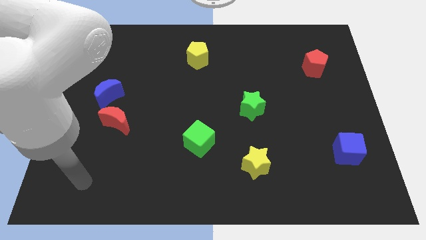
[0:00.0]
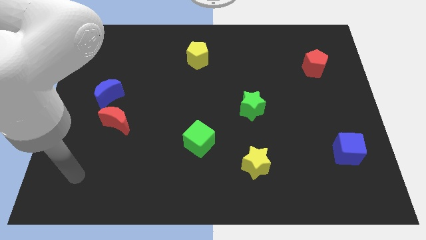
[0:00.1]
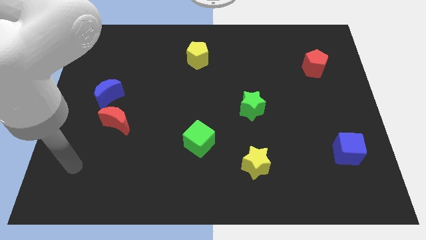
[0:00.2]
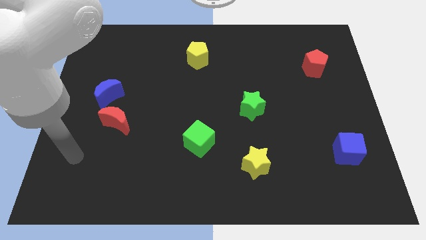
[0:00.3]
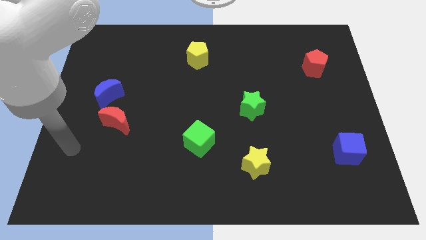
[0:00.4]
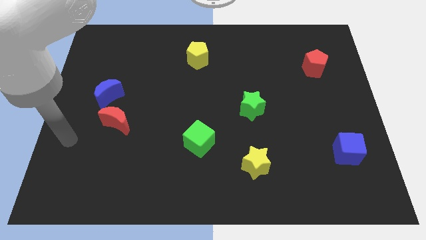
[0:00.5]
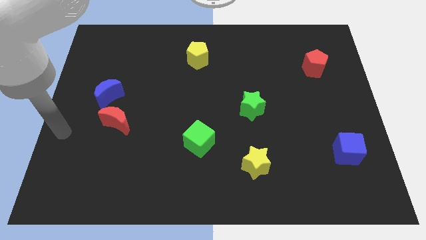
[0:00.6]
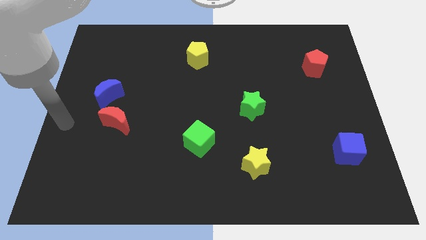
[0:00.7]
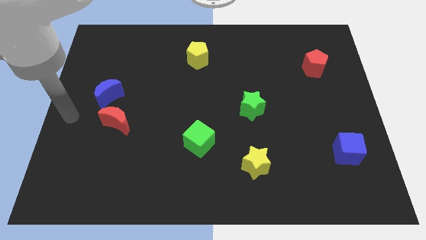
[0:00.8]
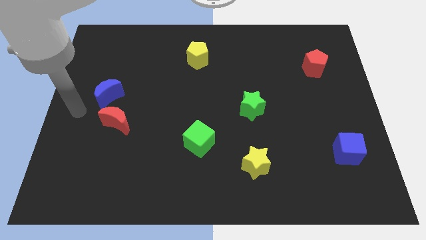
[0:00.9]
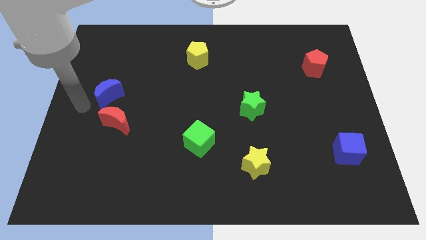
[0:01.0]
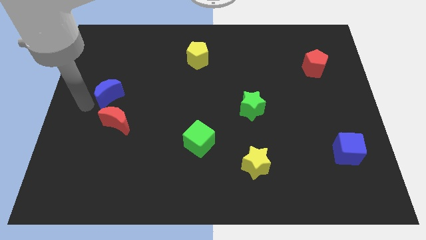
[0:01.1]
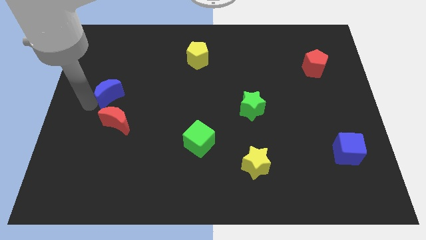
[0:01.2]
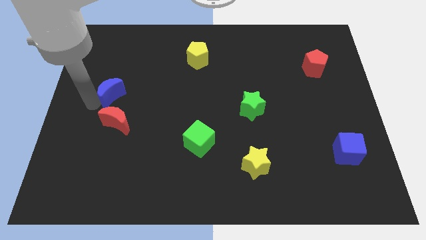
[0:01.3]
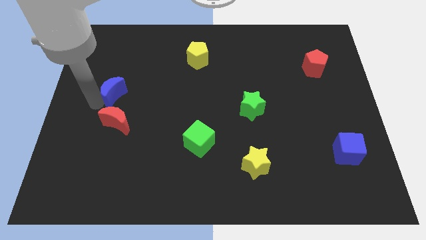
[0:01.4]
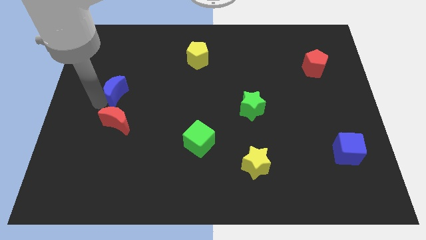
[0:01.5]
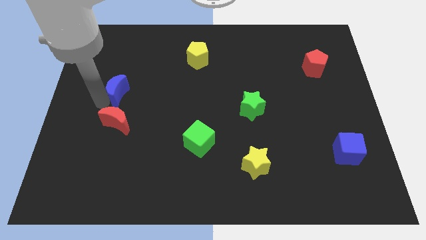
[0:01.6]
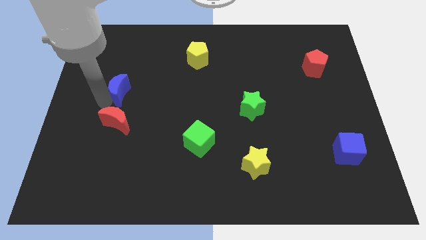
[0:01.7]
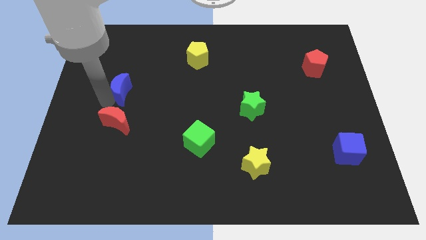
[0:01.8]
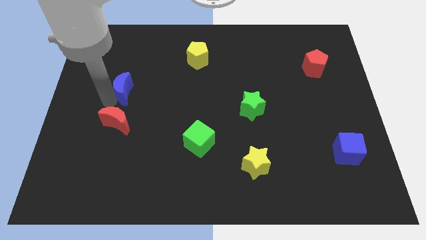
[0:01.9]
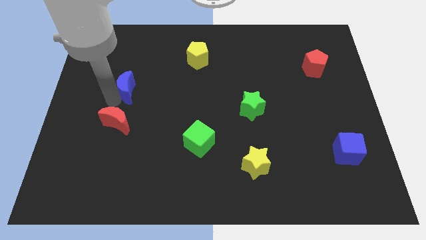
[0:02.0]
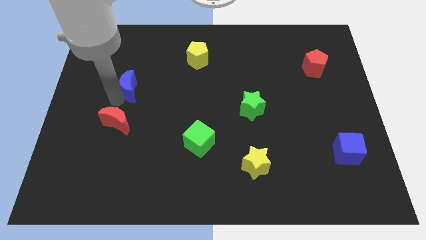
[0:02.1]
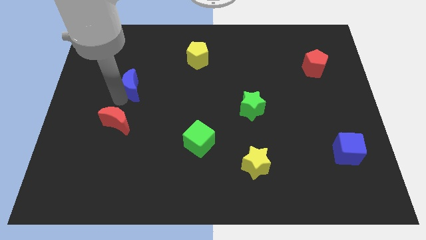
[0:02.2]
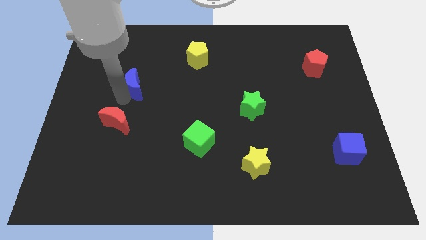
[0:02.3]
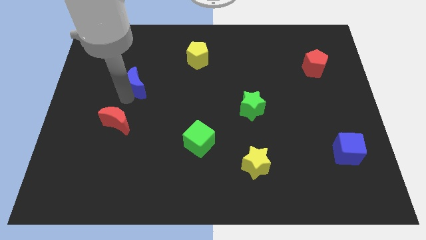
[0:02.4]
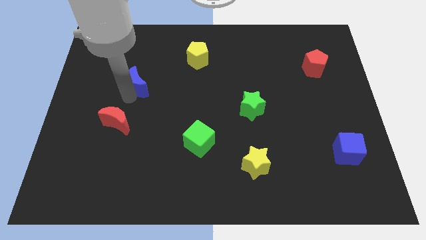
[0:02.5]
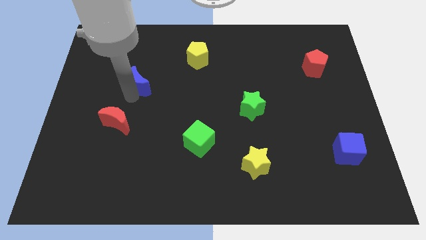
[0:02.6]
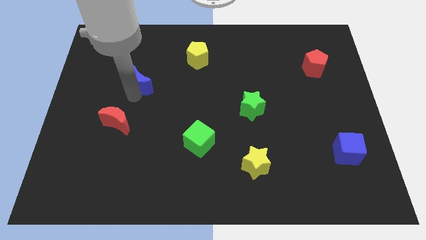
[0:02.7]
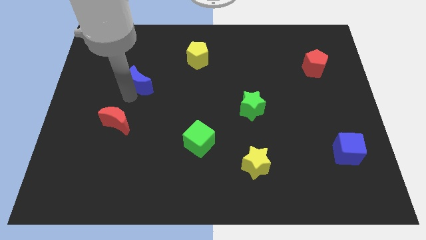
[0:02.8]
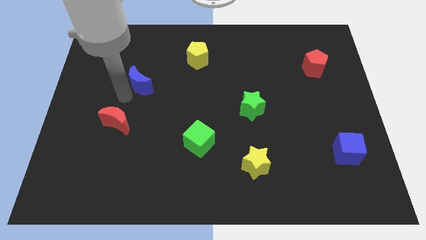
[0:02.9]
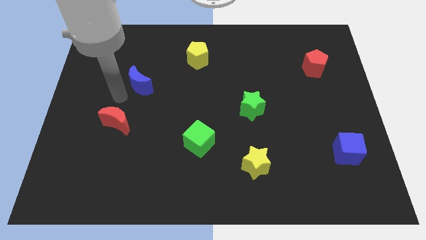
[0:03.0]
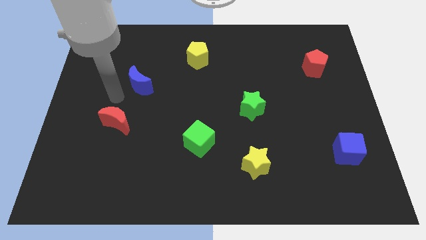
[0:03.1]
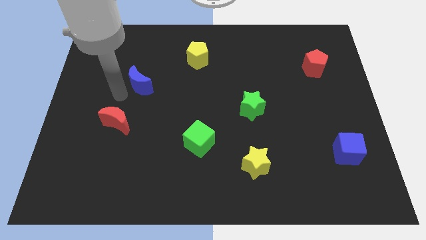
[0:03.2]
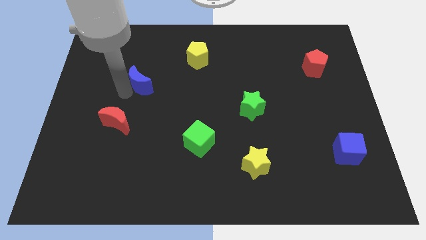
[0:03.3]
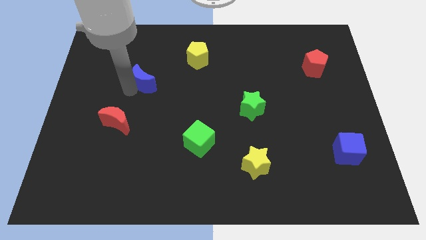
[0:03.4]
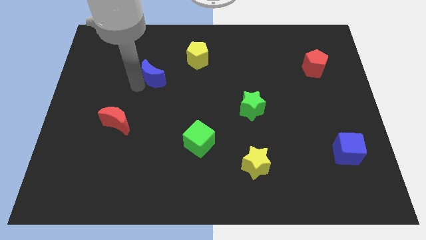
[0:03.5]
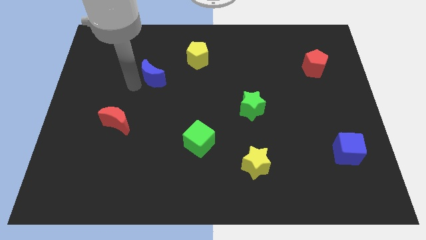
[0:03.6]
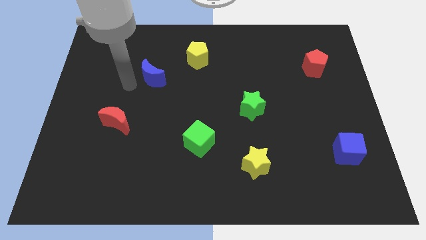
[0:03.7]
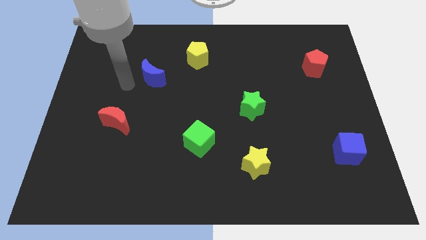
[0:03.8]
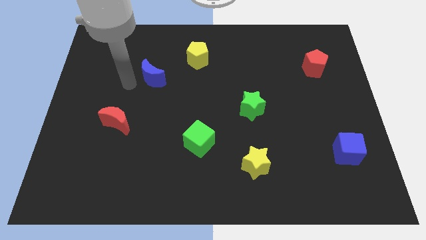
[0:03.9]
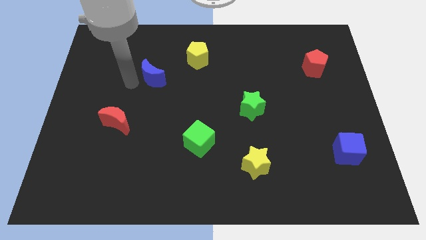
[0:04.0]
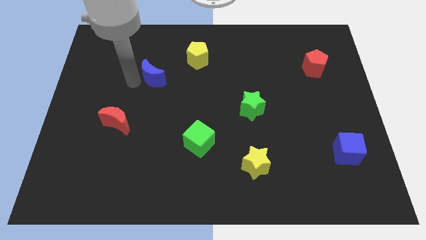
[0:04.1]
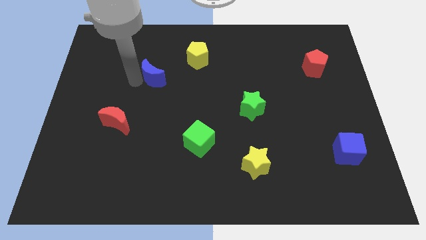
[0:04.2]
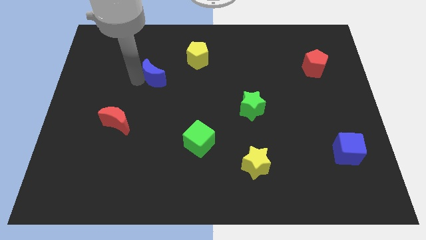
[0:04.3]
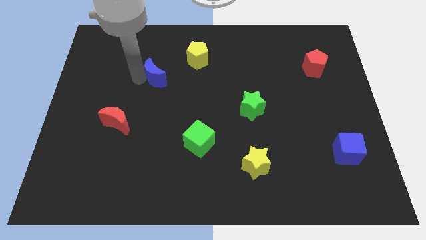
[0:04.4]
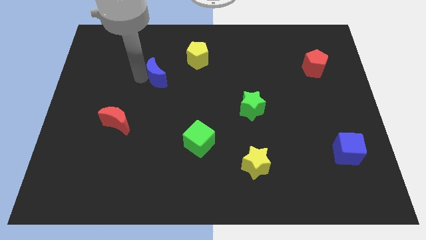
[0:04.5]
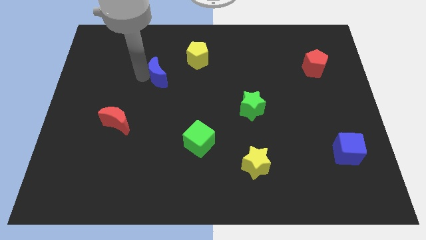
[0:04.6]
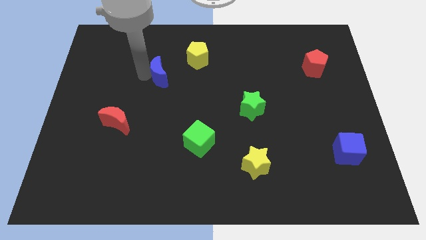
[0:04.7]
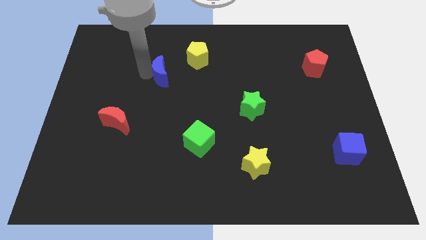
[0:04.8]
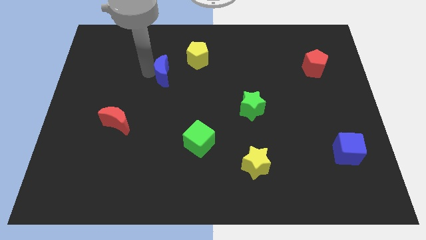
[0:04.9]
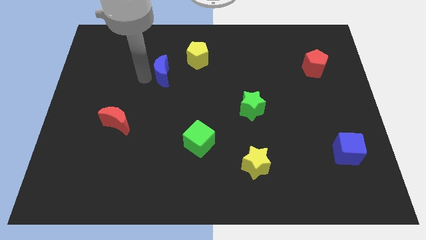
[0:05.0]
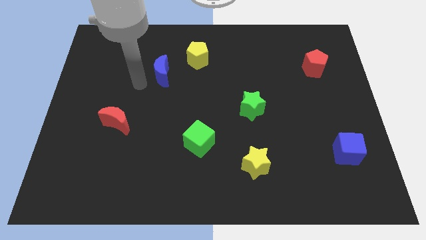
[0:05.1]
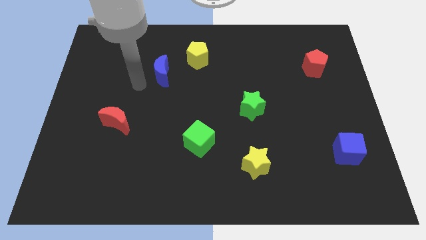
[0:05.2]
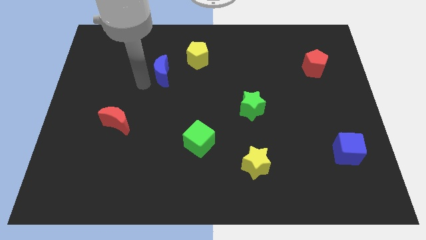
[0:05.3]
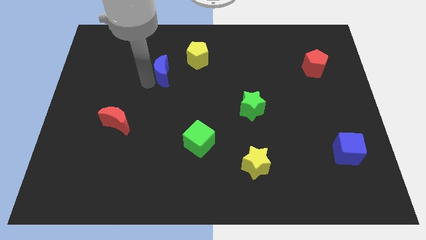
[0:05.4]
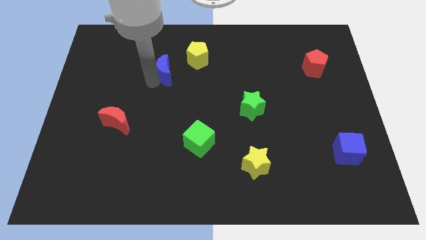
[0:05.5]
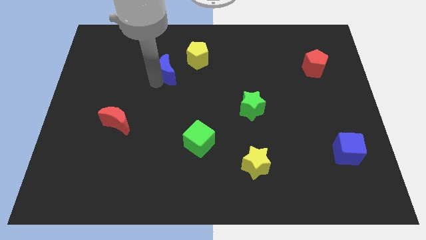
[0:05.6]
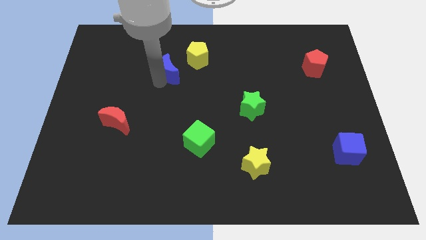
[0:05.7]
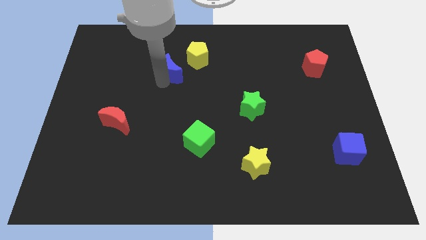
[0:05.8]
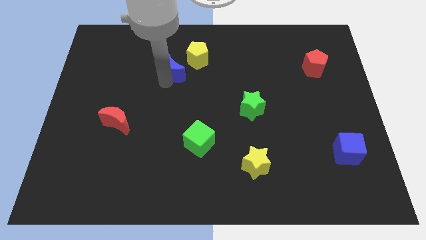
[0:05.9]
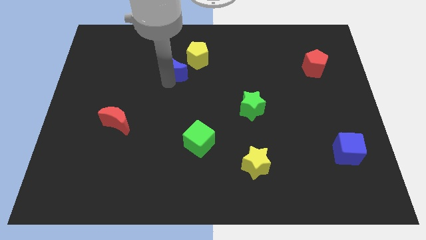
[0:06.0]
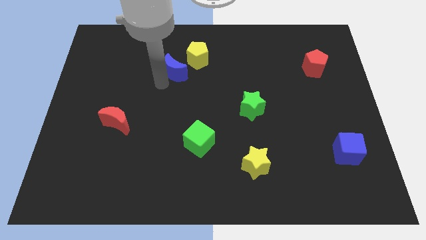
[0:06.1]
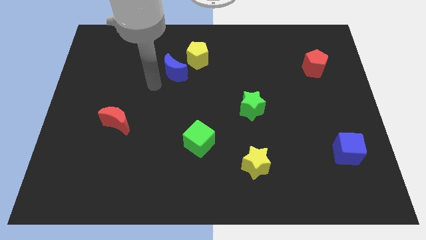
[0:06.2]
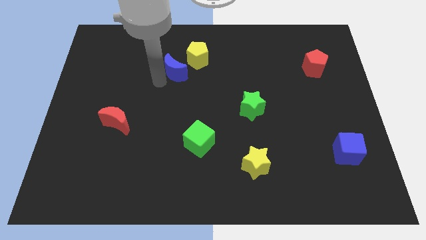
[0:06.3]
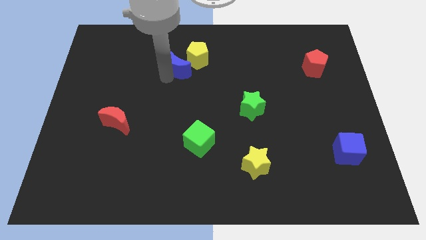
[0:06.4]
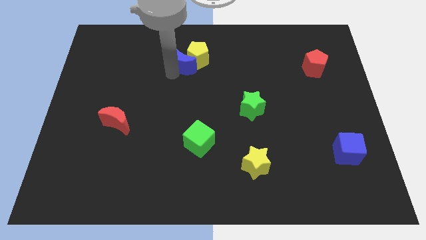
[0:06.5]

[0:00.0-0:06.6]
push the blue moon to the yellow pentagon
